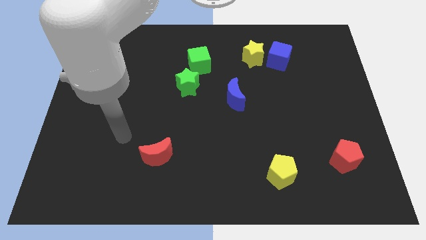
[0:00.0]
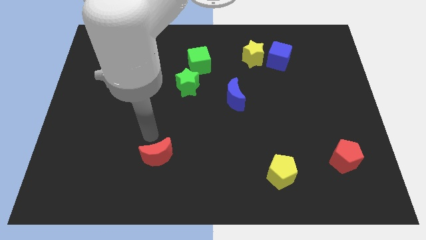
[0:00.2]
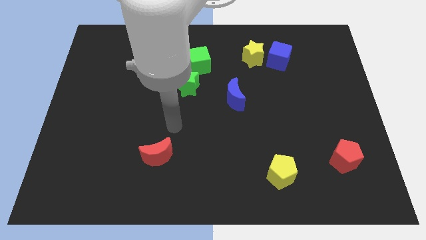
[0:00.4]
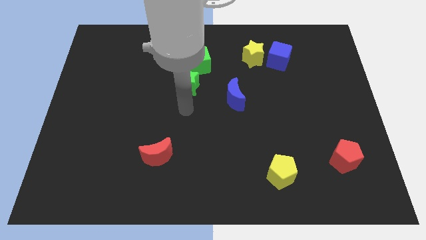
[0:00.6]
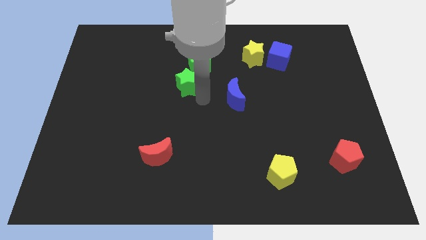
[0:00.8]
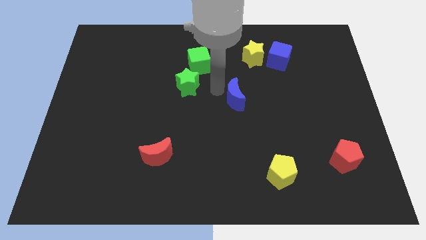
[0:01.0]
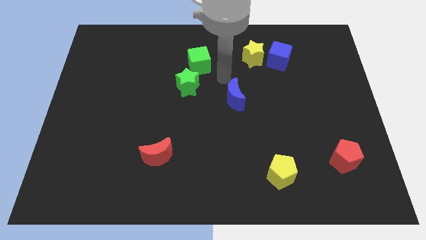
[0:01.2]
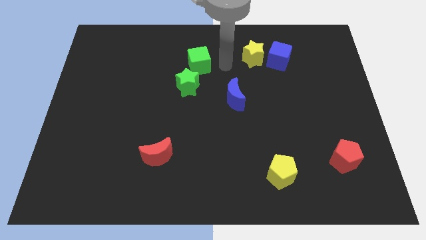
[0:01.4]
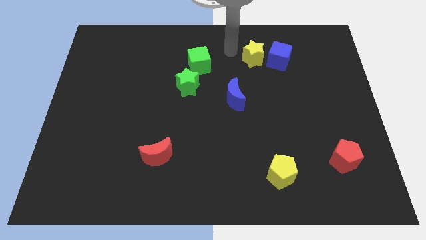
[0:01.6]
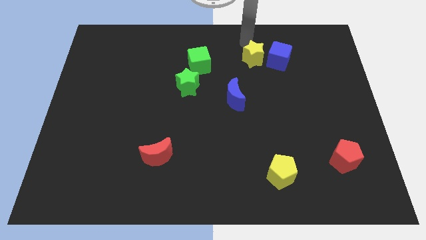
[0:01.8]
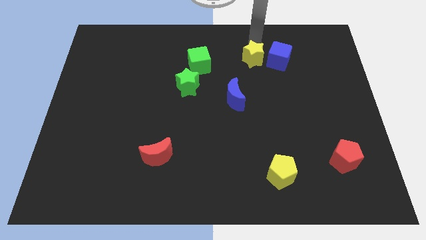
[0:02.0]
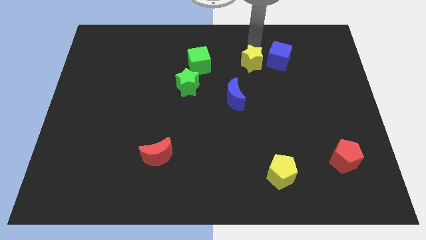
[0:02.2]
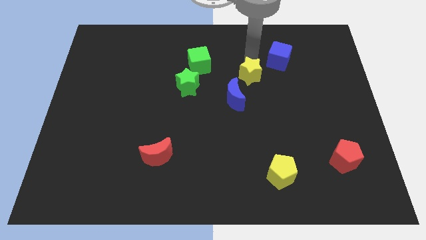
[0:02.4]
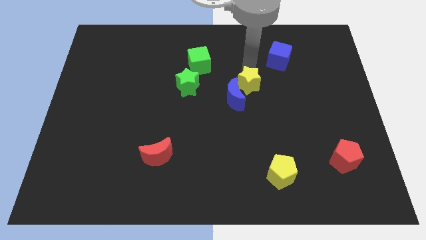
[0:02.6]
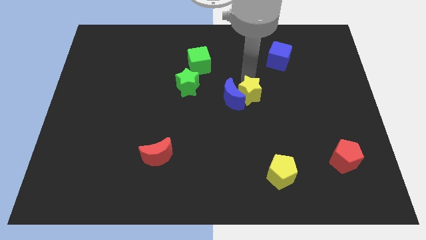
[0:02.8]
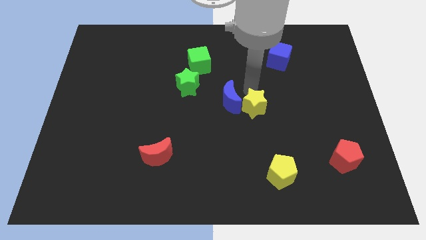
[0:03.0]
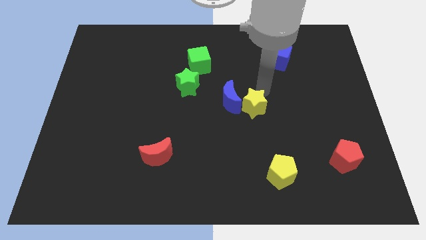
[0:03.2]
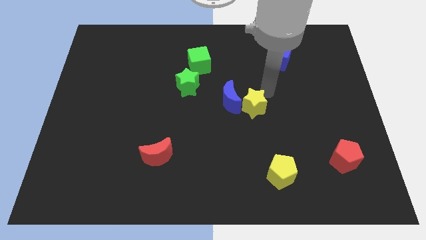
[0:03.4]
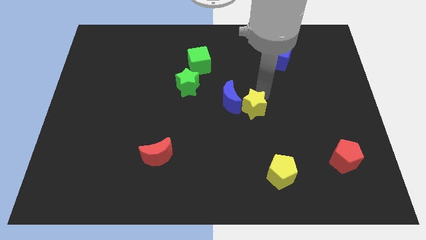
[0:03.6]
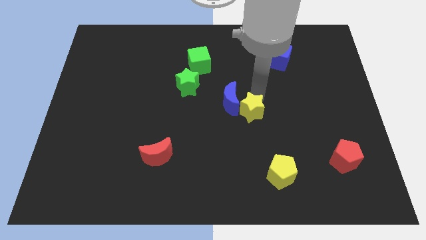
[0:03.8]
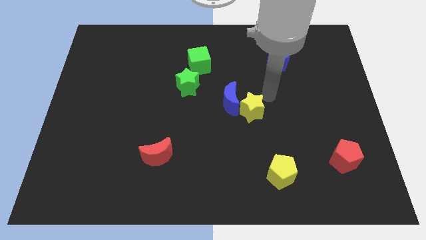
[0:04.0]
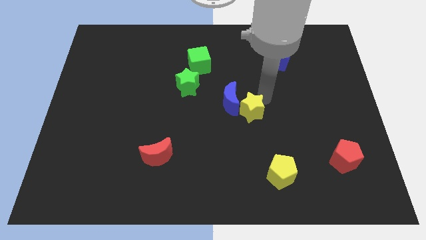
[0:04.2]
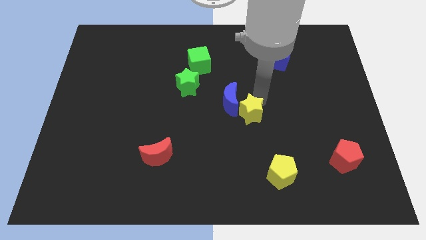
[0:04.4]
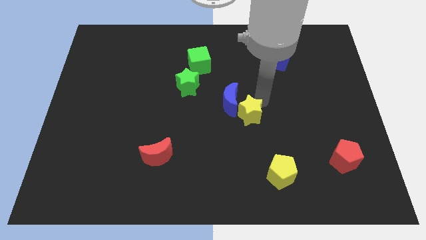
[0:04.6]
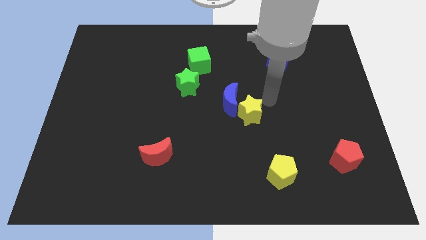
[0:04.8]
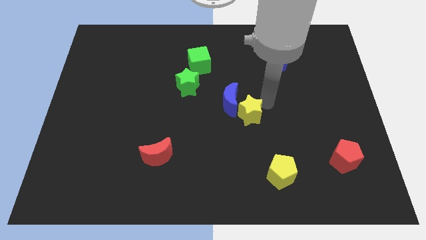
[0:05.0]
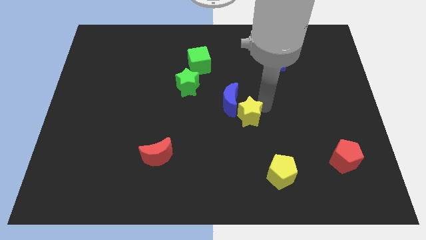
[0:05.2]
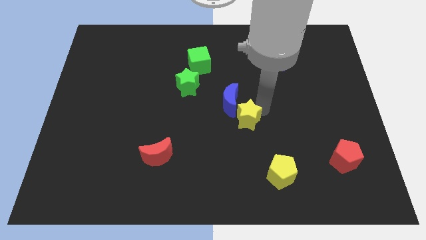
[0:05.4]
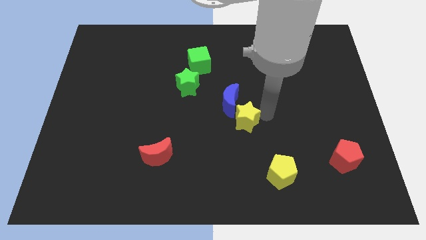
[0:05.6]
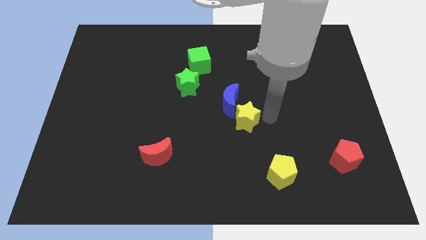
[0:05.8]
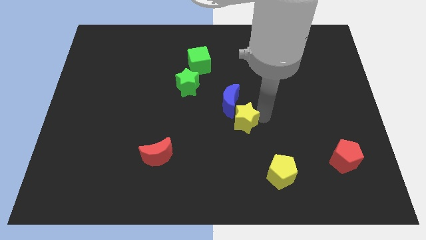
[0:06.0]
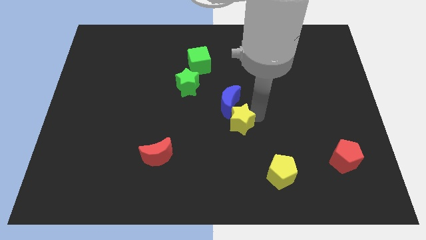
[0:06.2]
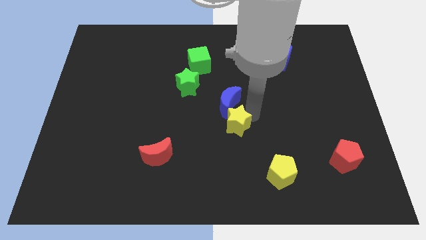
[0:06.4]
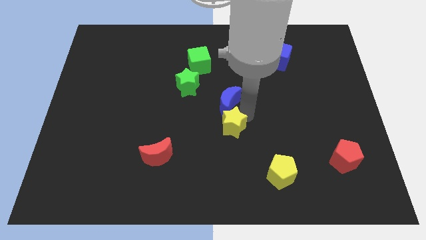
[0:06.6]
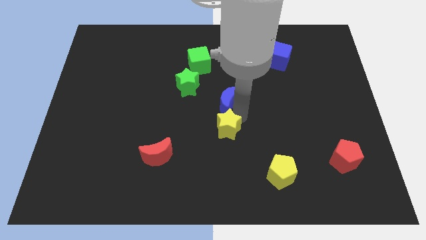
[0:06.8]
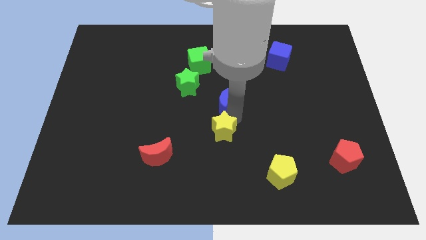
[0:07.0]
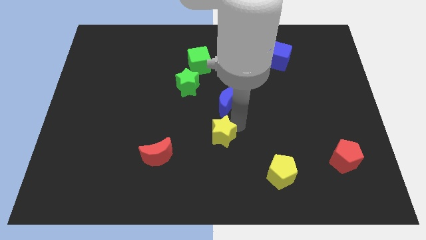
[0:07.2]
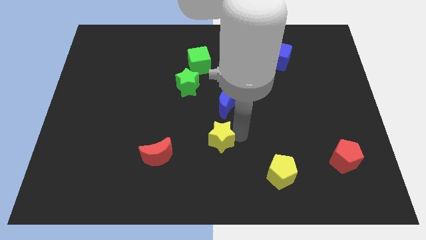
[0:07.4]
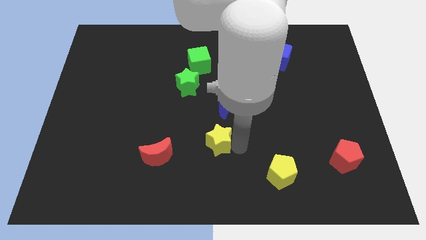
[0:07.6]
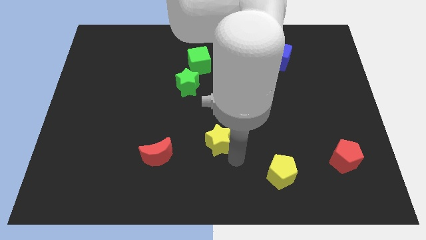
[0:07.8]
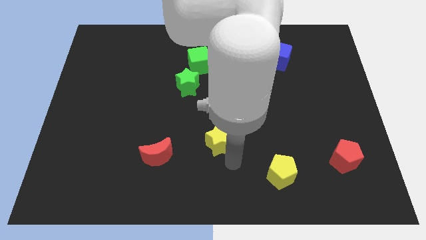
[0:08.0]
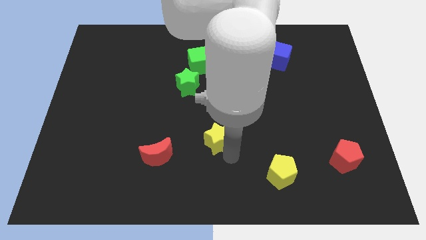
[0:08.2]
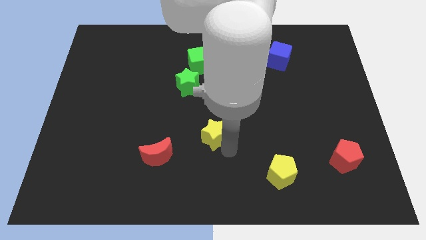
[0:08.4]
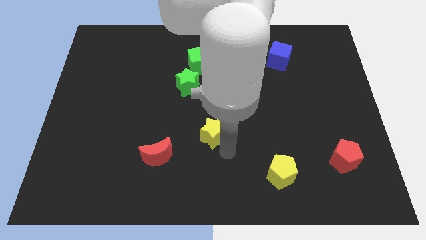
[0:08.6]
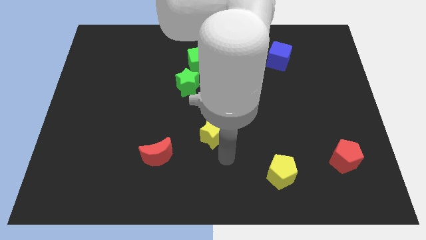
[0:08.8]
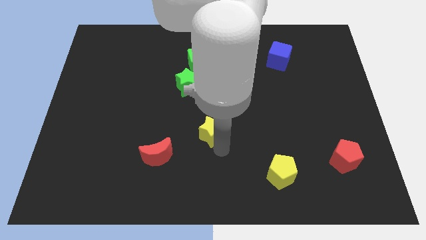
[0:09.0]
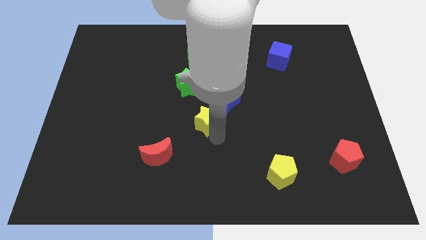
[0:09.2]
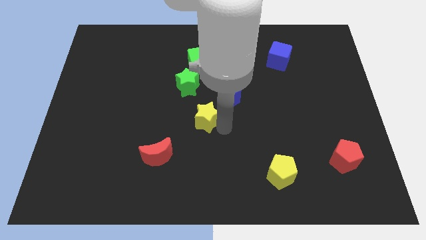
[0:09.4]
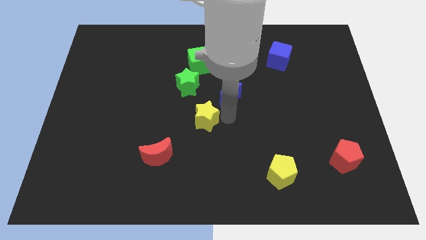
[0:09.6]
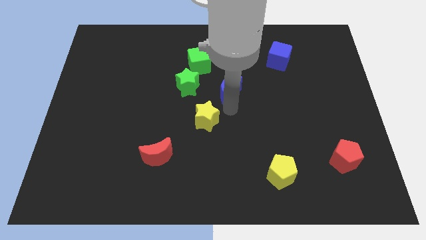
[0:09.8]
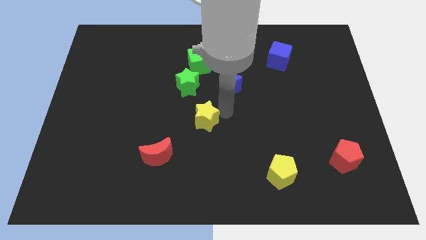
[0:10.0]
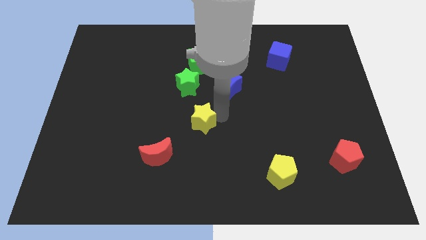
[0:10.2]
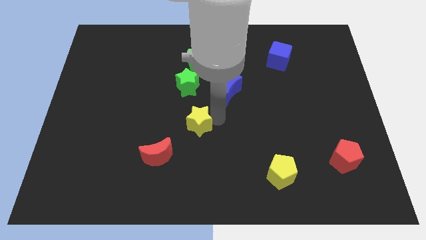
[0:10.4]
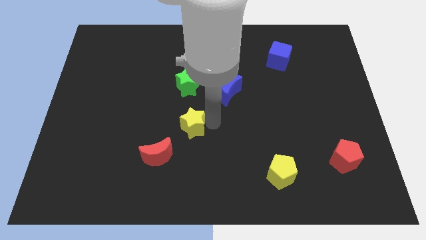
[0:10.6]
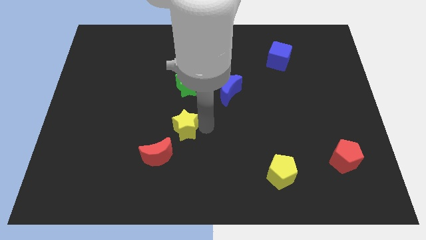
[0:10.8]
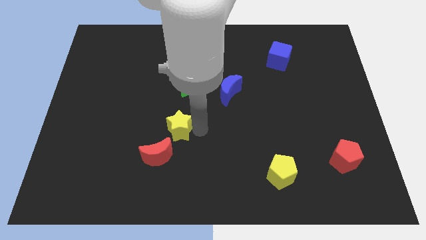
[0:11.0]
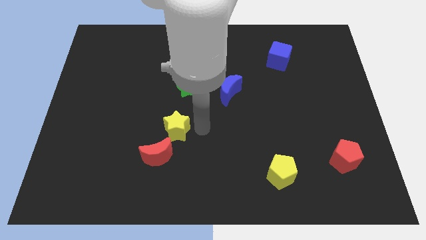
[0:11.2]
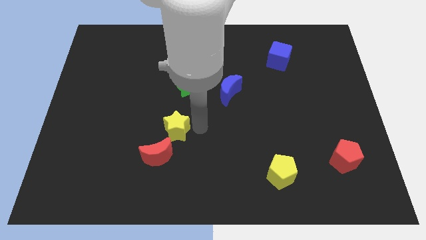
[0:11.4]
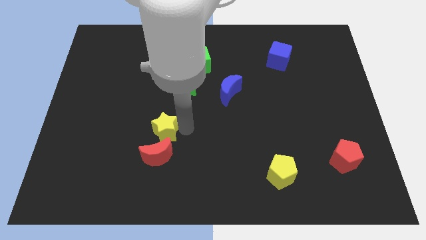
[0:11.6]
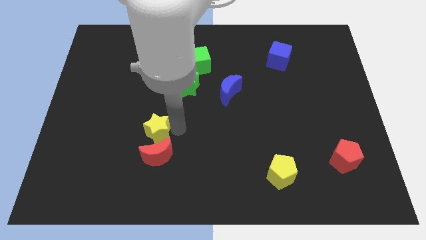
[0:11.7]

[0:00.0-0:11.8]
move the yellow star to the top left side of the red moon

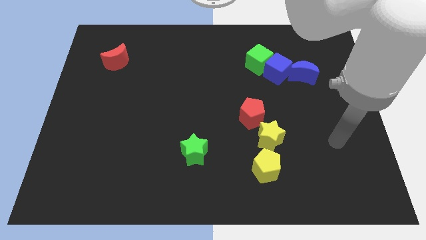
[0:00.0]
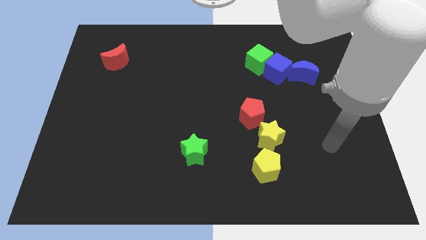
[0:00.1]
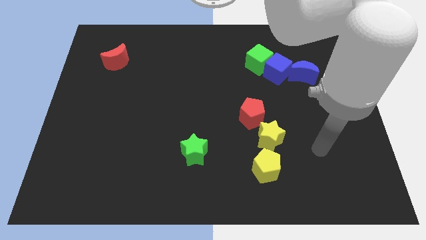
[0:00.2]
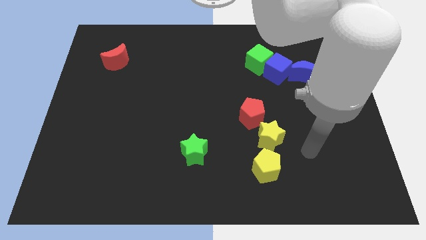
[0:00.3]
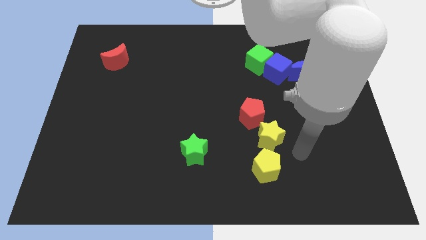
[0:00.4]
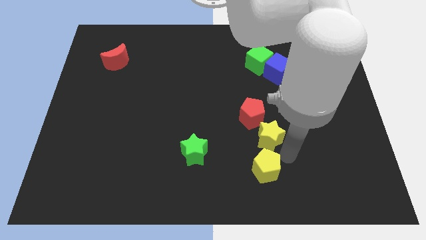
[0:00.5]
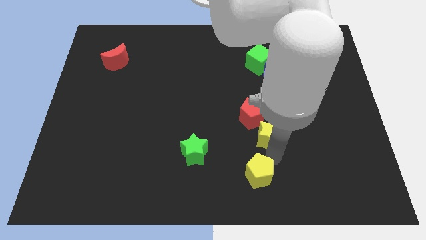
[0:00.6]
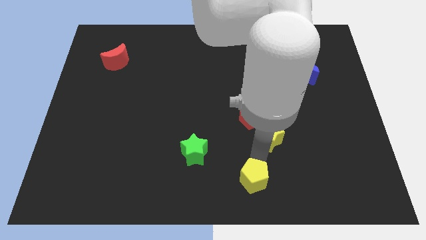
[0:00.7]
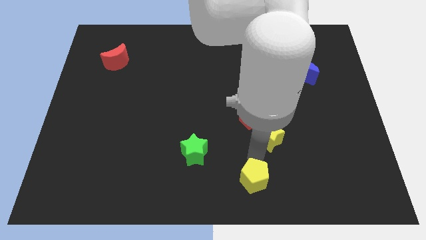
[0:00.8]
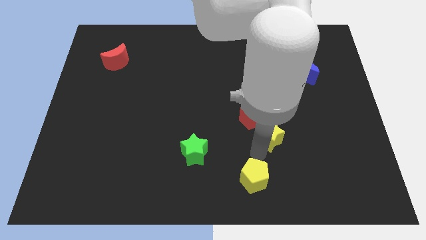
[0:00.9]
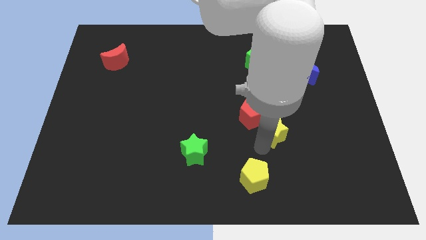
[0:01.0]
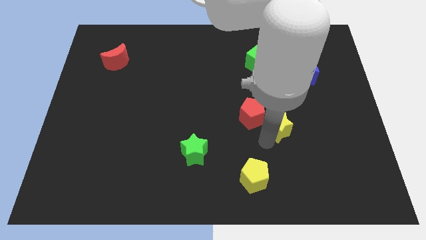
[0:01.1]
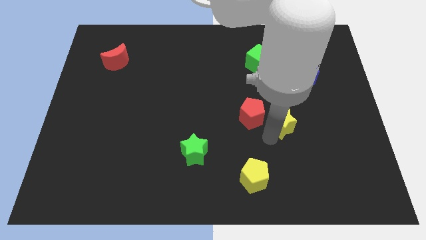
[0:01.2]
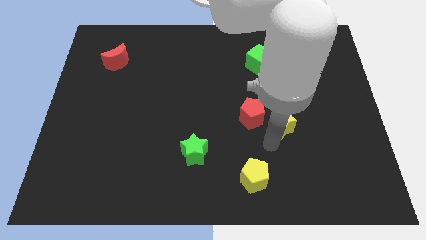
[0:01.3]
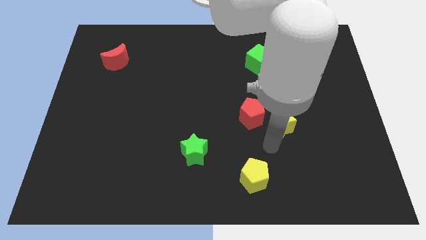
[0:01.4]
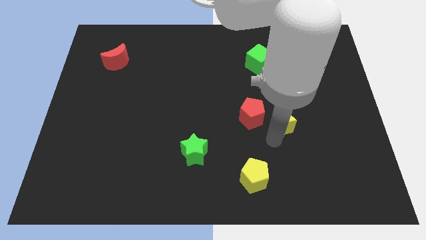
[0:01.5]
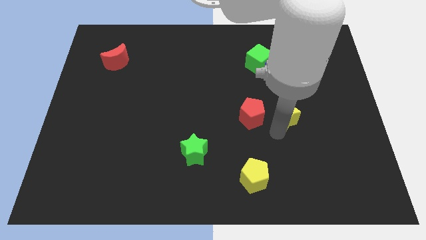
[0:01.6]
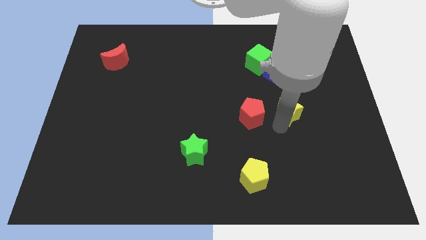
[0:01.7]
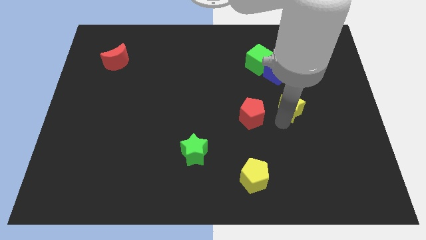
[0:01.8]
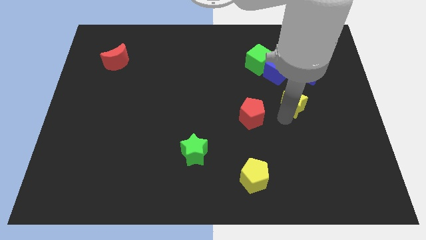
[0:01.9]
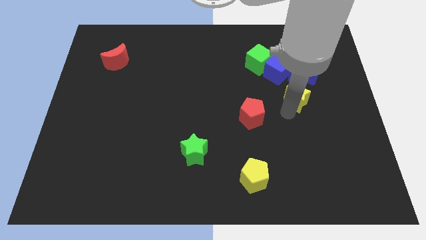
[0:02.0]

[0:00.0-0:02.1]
put the yellow star to the bottom right of the blue cube
